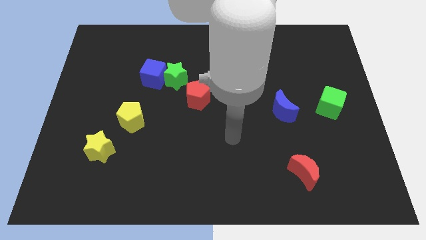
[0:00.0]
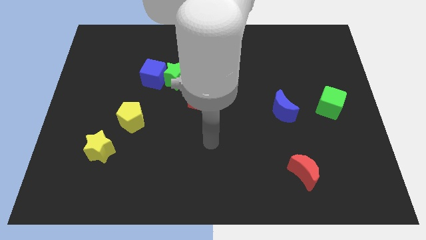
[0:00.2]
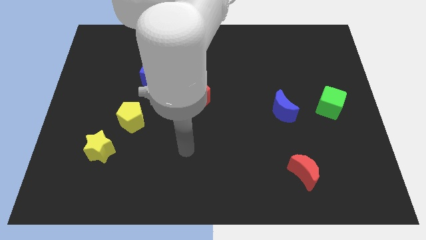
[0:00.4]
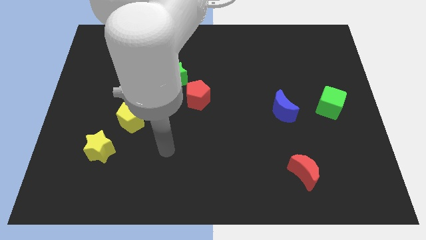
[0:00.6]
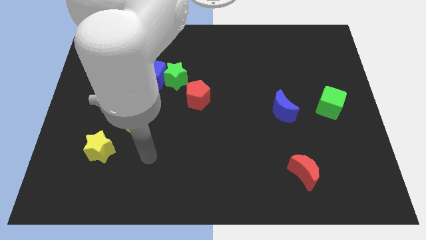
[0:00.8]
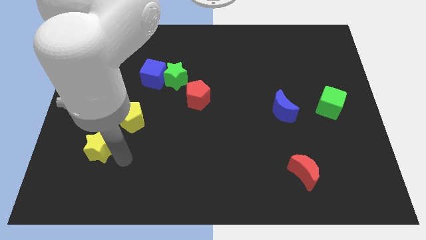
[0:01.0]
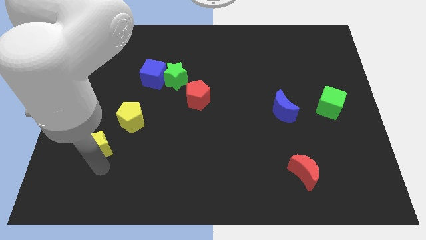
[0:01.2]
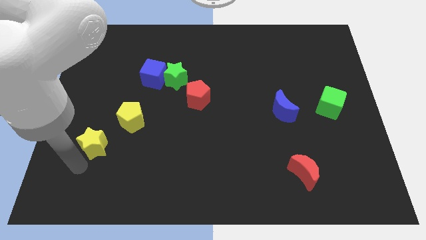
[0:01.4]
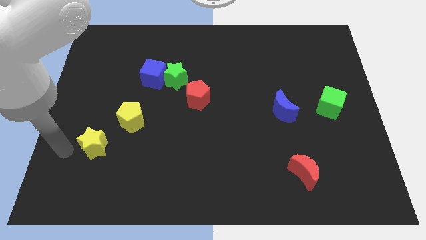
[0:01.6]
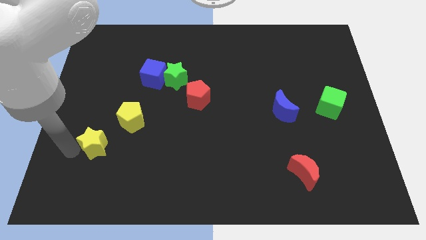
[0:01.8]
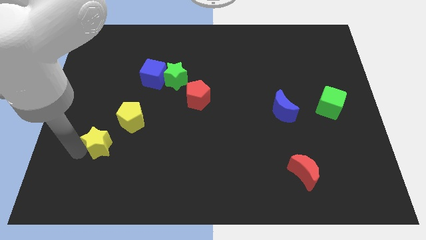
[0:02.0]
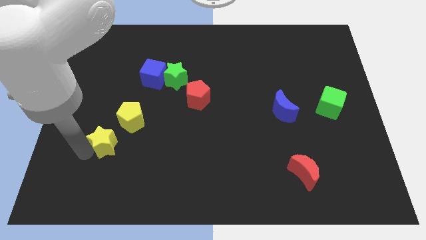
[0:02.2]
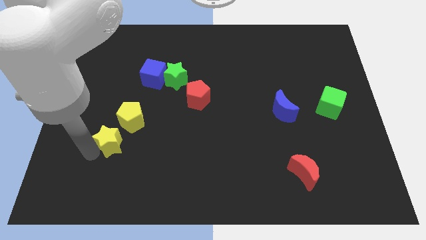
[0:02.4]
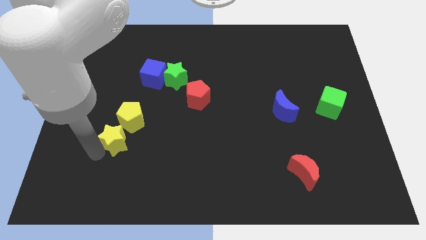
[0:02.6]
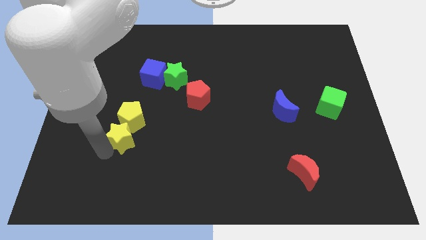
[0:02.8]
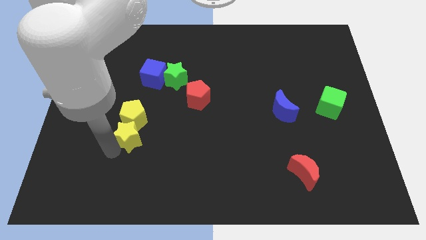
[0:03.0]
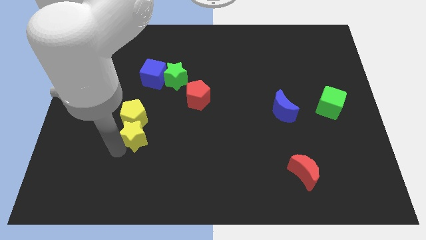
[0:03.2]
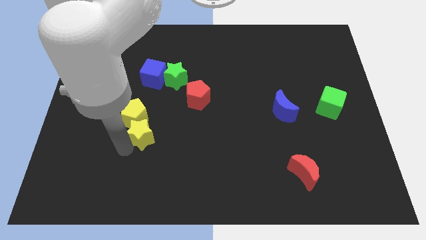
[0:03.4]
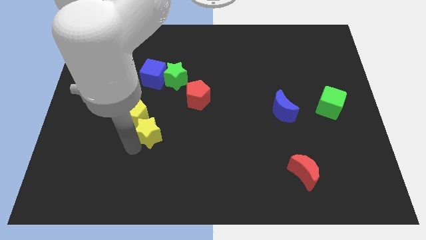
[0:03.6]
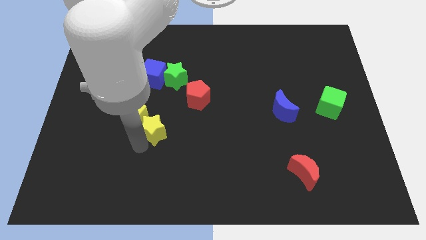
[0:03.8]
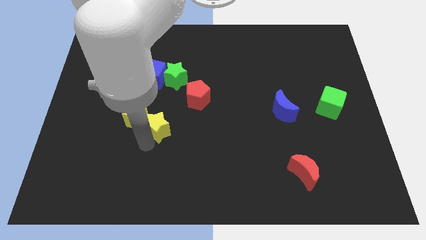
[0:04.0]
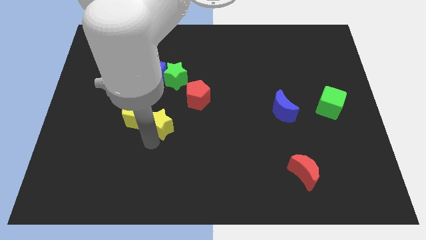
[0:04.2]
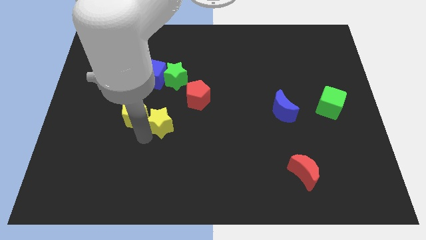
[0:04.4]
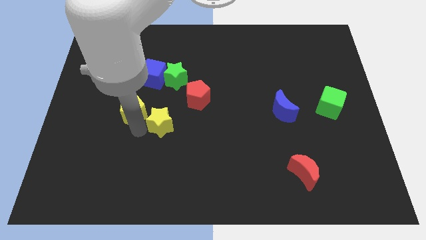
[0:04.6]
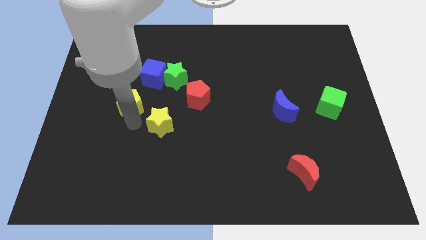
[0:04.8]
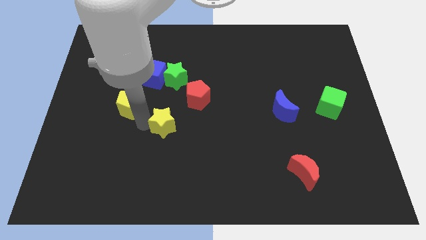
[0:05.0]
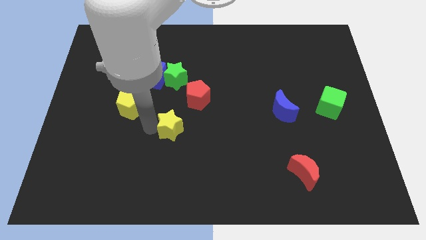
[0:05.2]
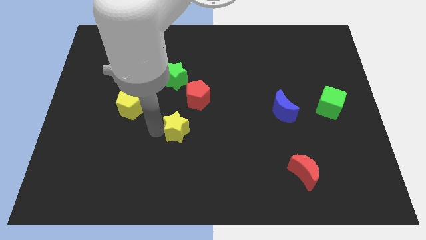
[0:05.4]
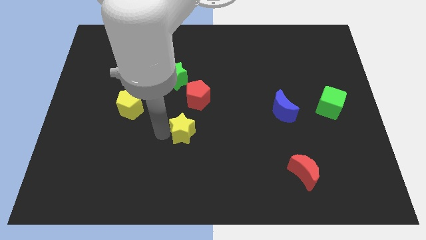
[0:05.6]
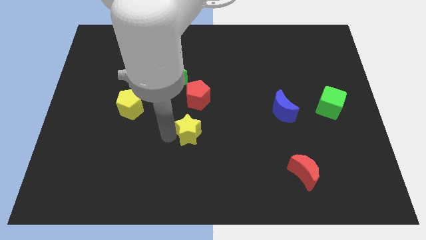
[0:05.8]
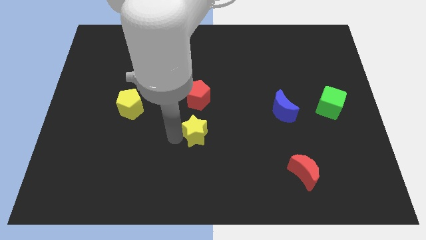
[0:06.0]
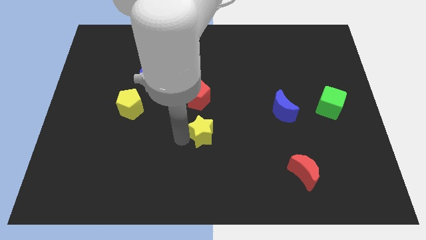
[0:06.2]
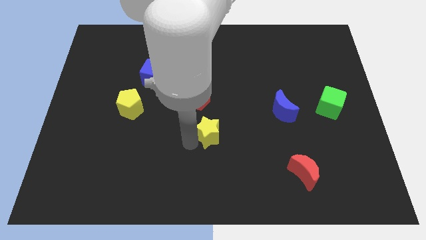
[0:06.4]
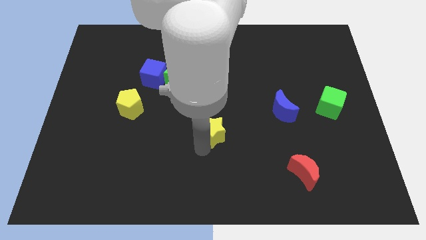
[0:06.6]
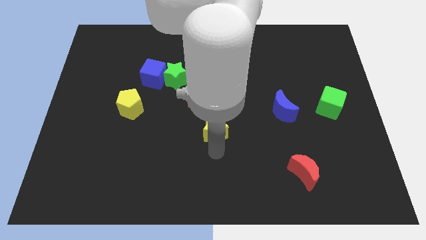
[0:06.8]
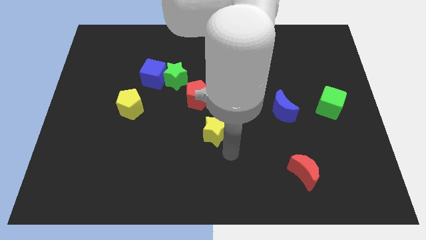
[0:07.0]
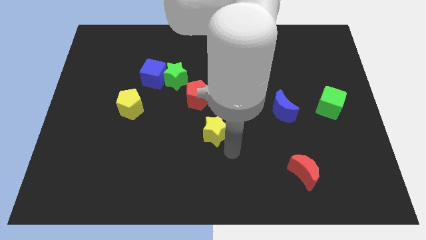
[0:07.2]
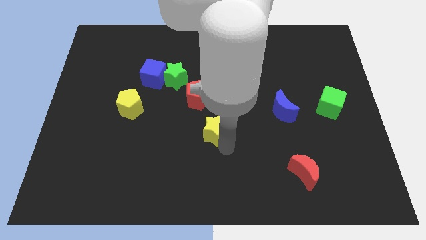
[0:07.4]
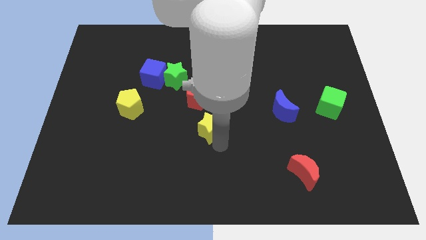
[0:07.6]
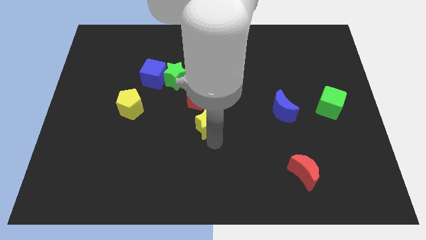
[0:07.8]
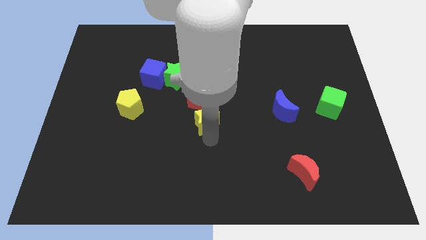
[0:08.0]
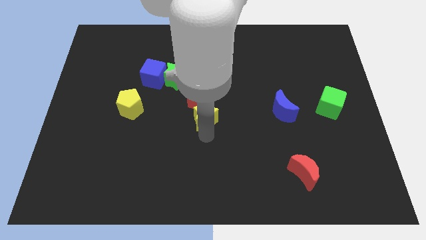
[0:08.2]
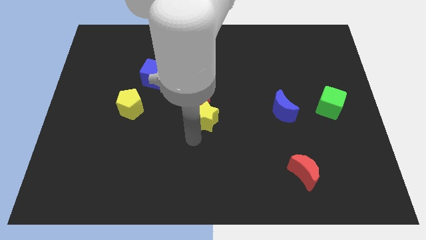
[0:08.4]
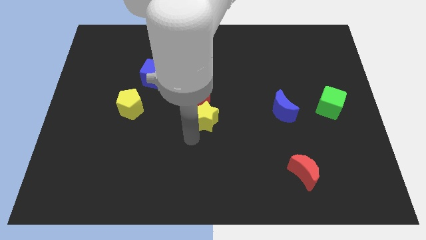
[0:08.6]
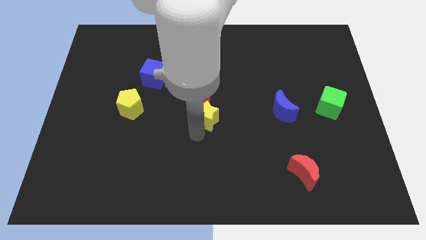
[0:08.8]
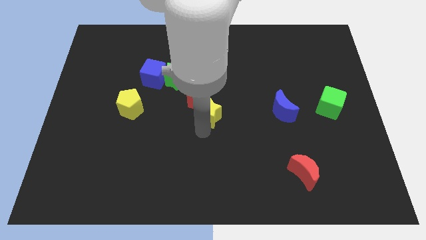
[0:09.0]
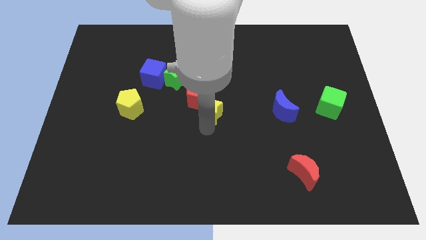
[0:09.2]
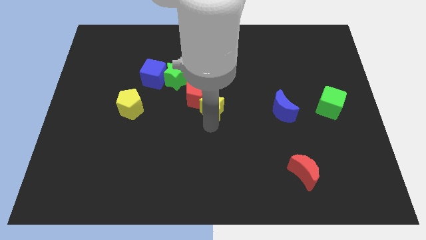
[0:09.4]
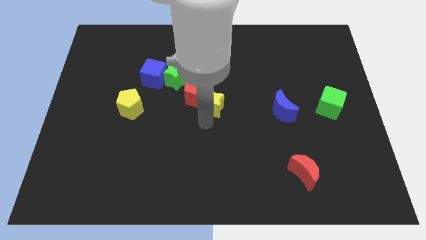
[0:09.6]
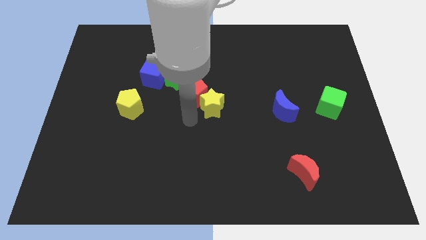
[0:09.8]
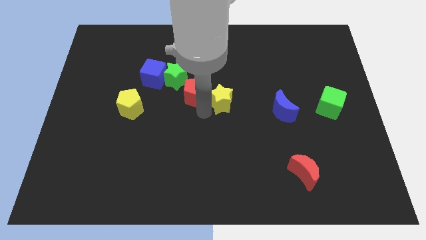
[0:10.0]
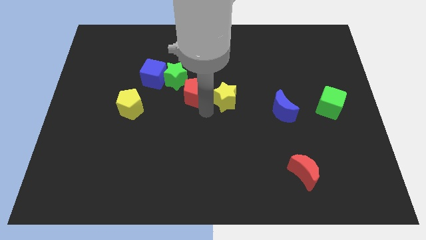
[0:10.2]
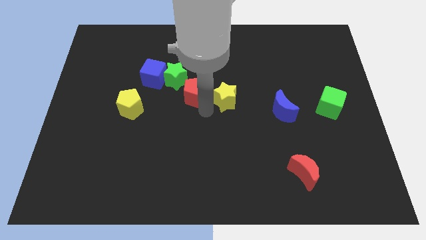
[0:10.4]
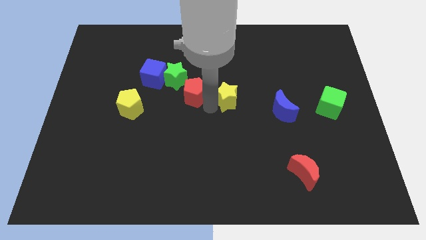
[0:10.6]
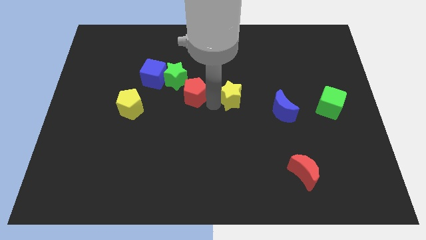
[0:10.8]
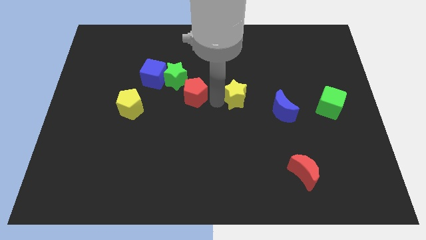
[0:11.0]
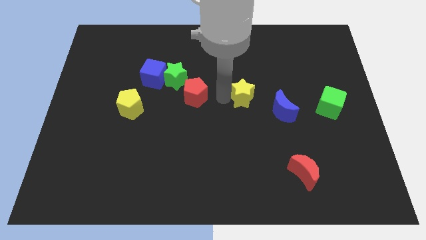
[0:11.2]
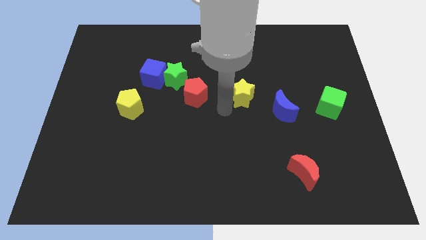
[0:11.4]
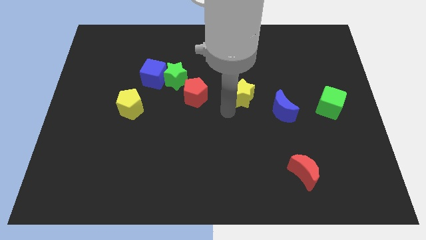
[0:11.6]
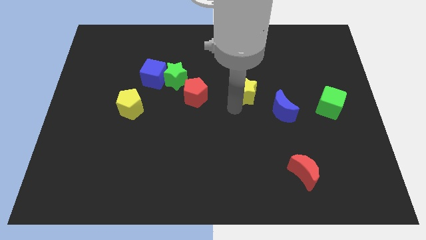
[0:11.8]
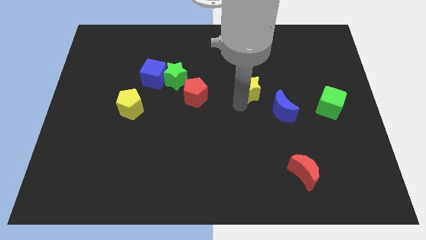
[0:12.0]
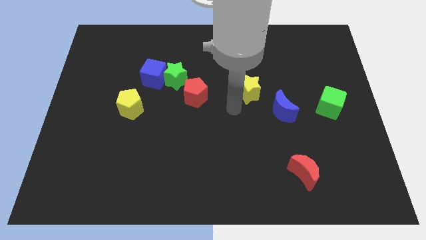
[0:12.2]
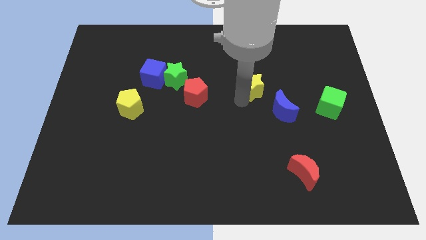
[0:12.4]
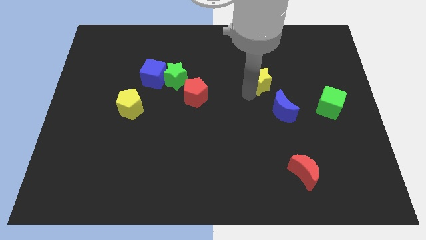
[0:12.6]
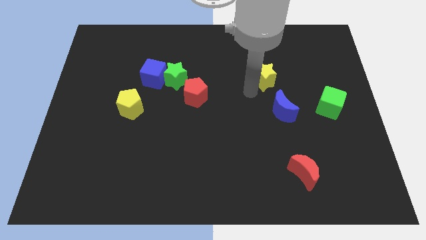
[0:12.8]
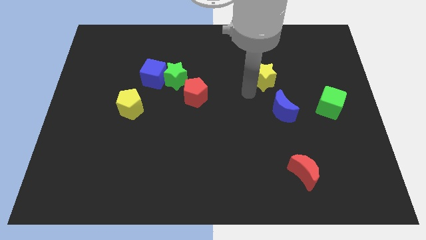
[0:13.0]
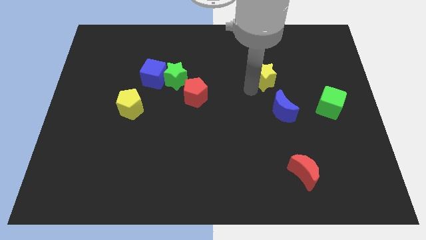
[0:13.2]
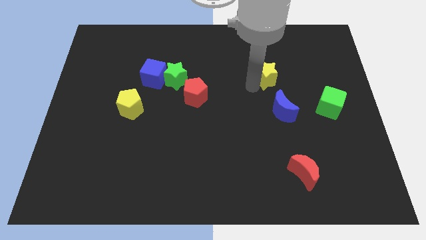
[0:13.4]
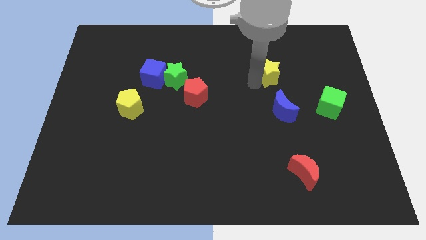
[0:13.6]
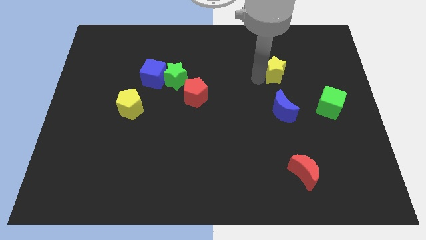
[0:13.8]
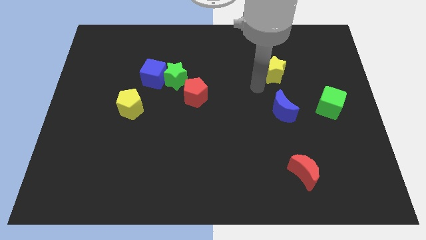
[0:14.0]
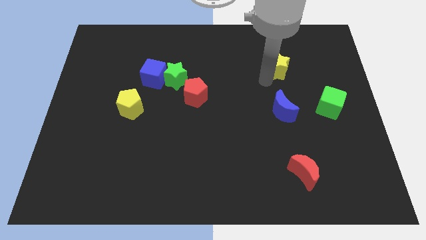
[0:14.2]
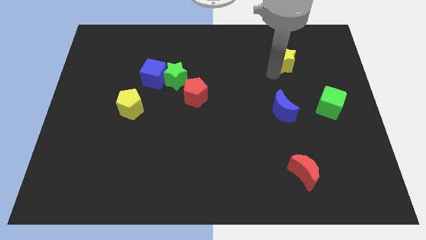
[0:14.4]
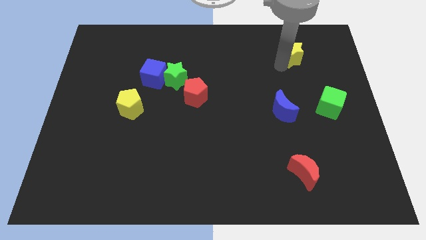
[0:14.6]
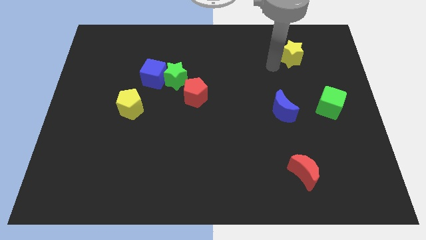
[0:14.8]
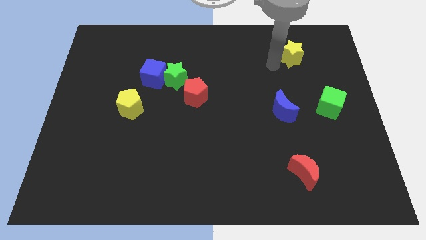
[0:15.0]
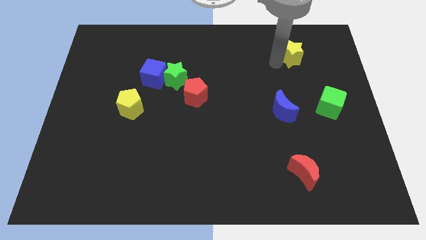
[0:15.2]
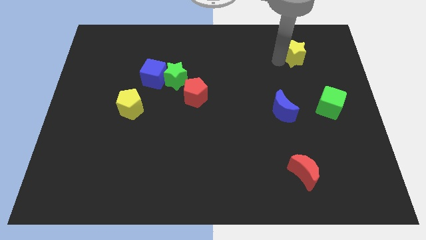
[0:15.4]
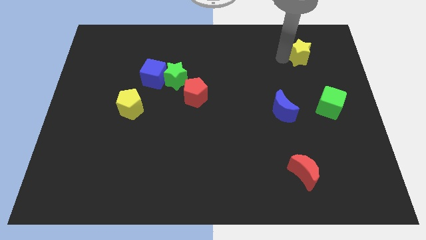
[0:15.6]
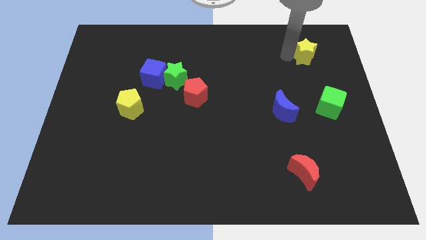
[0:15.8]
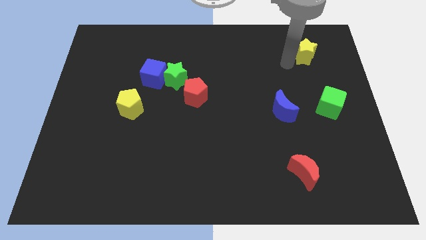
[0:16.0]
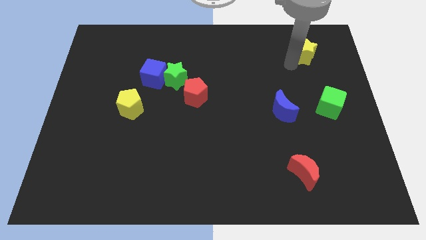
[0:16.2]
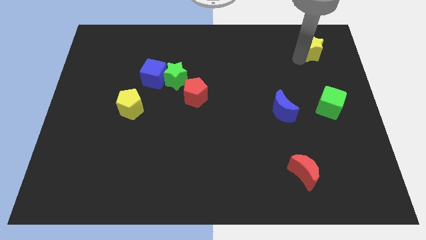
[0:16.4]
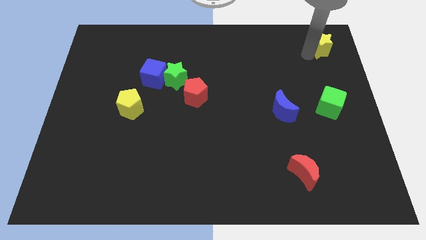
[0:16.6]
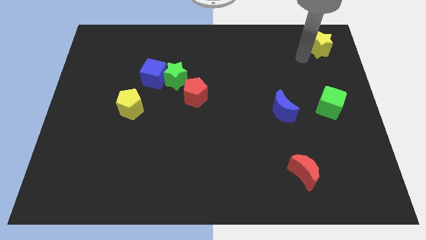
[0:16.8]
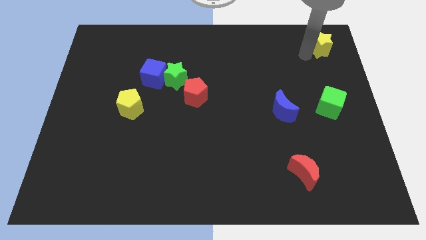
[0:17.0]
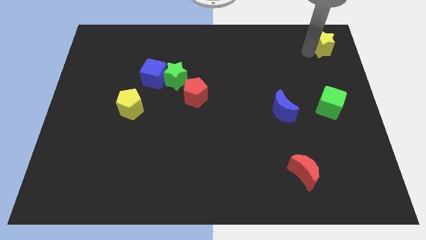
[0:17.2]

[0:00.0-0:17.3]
slide the yellow star to the top right
